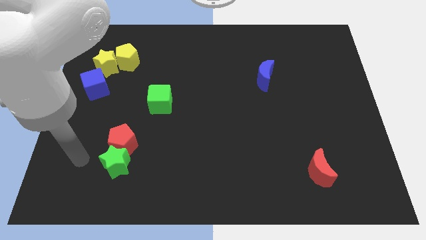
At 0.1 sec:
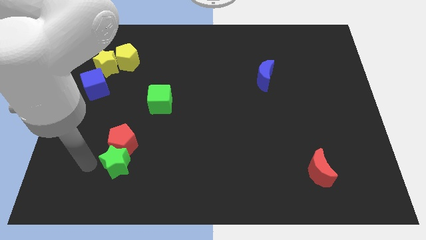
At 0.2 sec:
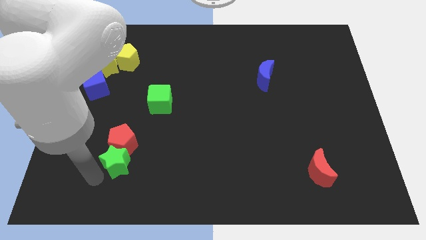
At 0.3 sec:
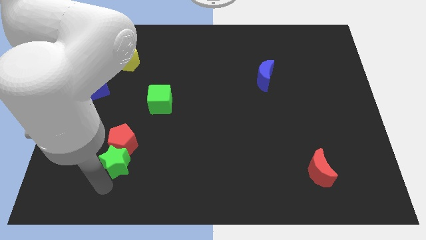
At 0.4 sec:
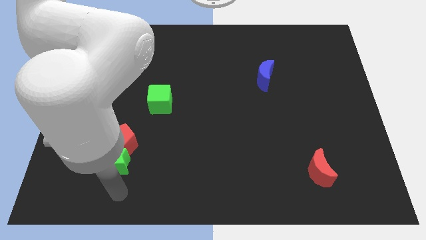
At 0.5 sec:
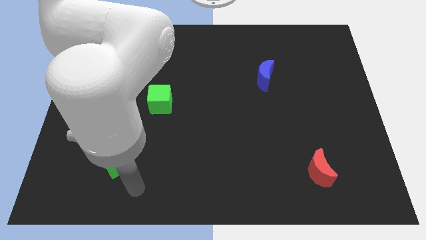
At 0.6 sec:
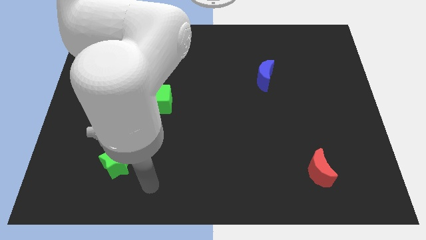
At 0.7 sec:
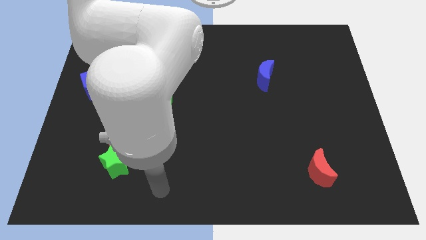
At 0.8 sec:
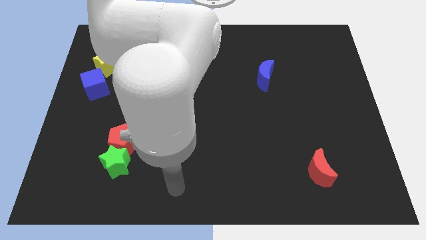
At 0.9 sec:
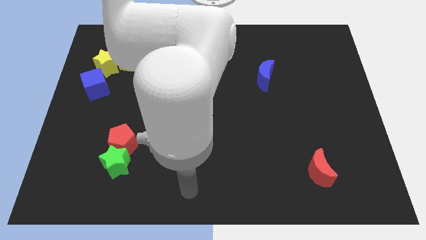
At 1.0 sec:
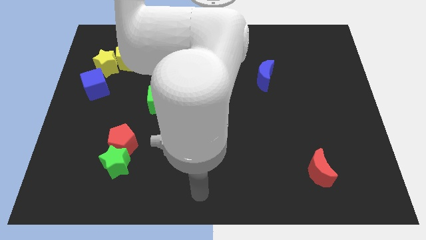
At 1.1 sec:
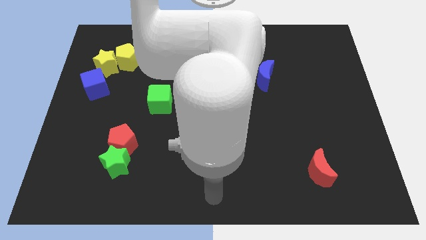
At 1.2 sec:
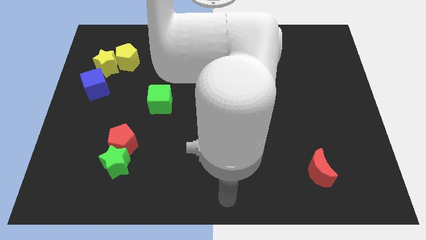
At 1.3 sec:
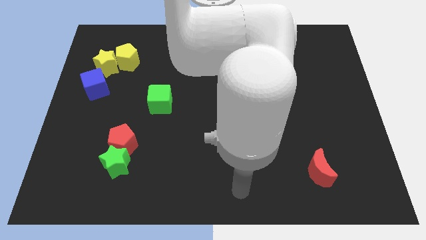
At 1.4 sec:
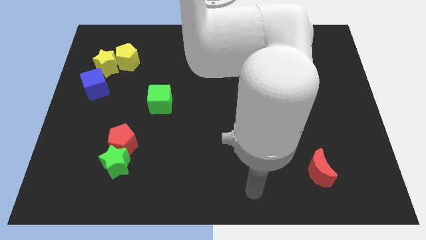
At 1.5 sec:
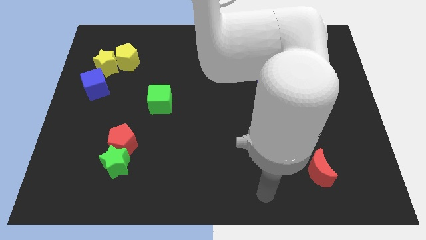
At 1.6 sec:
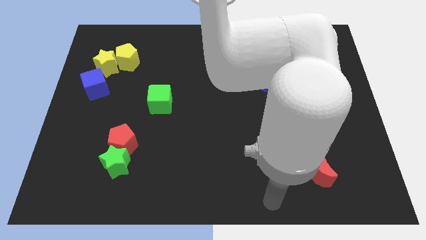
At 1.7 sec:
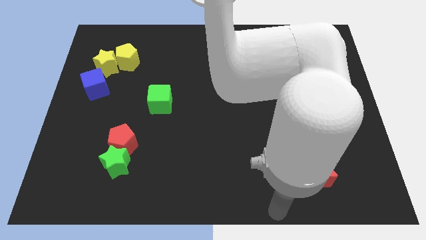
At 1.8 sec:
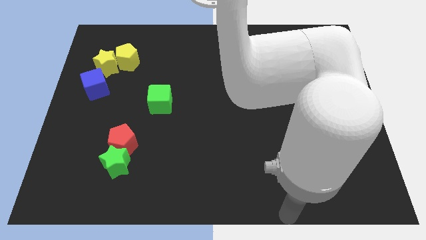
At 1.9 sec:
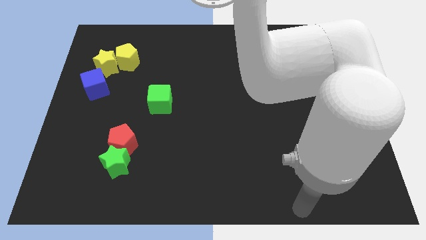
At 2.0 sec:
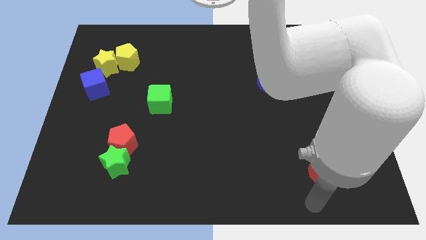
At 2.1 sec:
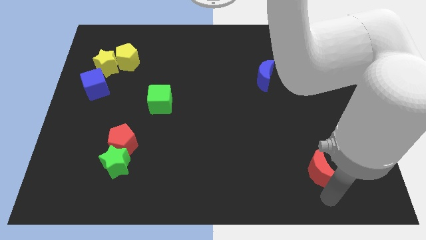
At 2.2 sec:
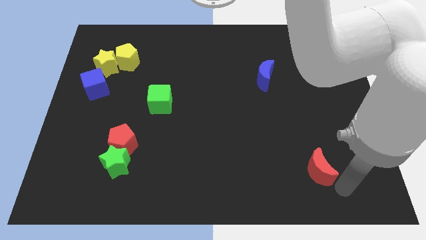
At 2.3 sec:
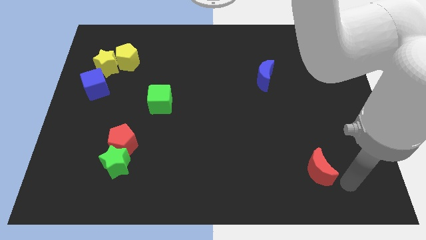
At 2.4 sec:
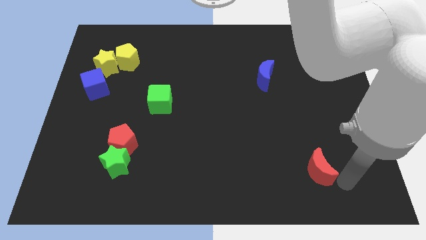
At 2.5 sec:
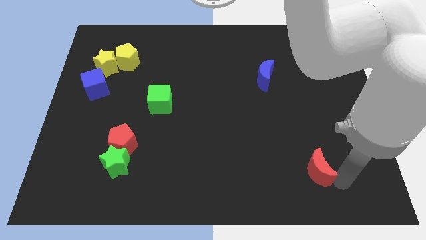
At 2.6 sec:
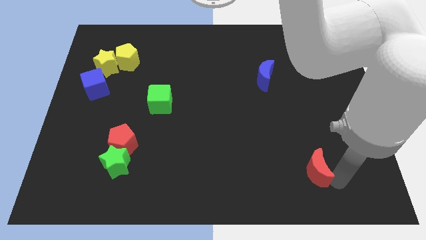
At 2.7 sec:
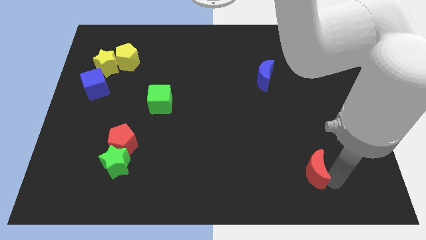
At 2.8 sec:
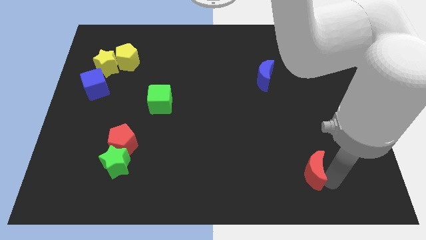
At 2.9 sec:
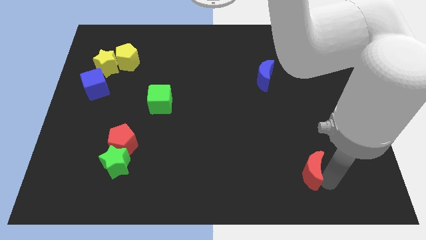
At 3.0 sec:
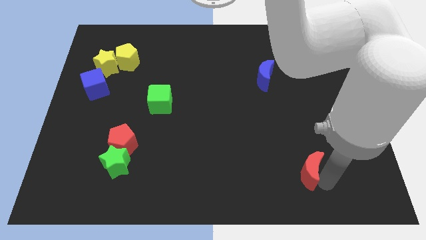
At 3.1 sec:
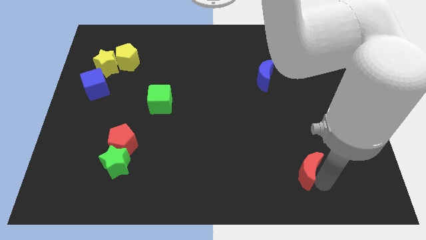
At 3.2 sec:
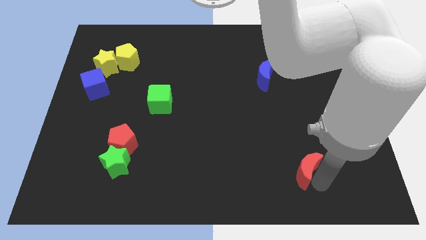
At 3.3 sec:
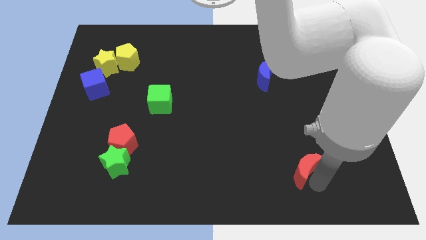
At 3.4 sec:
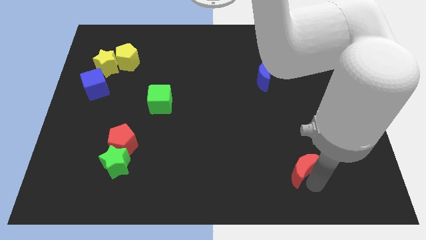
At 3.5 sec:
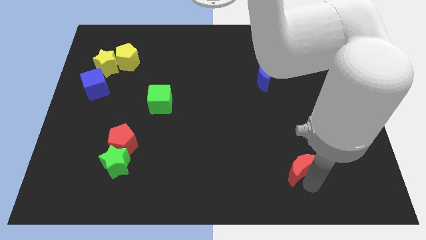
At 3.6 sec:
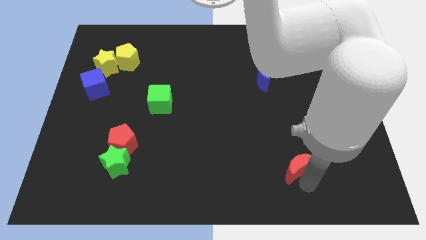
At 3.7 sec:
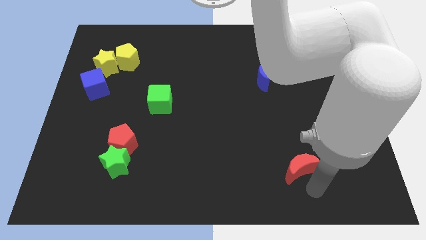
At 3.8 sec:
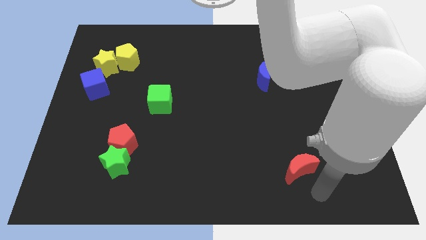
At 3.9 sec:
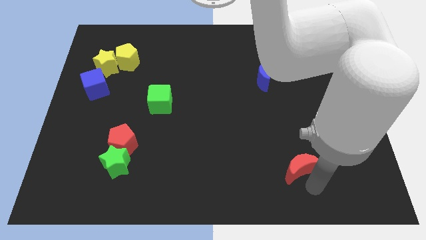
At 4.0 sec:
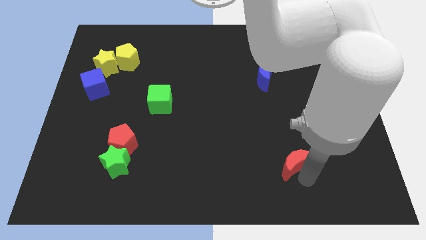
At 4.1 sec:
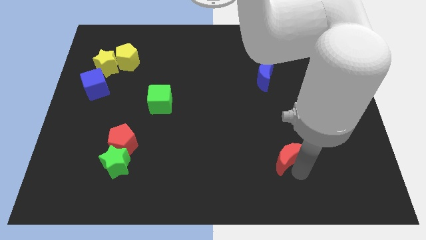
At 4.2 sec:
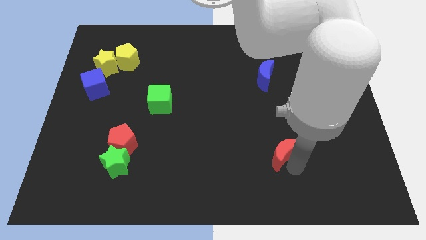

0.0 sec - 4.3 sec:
move the red moon upwards and to the left diagonally somewhat

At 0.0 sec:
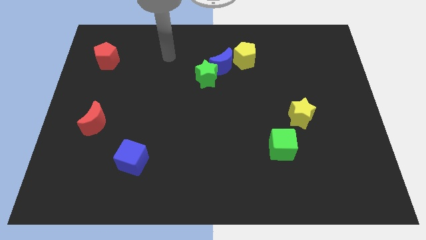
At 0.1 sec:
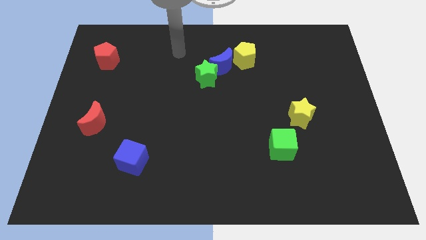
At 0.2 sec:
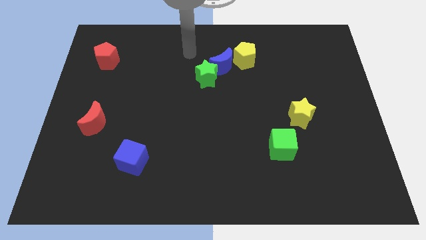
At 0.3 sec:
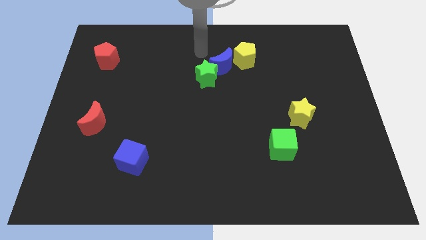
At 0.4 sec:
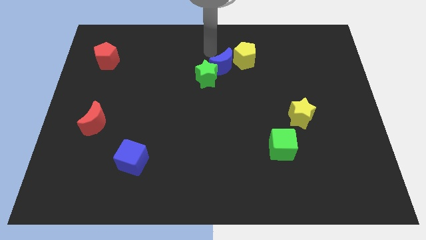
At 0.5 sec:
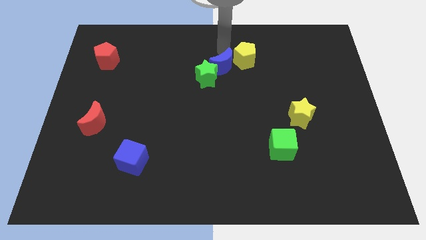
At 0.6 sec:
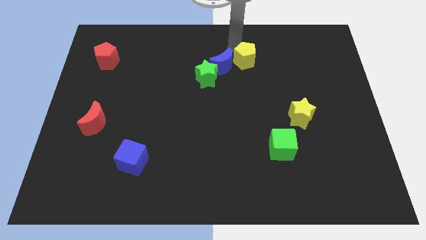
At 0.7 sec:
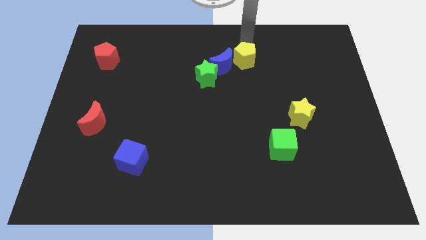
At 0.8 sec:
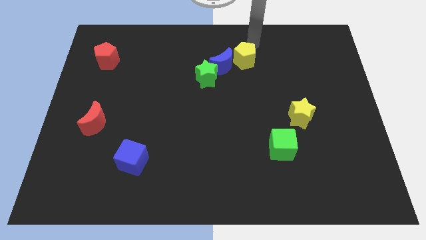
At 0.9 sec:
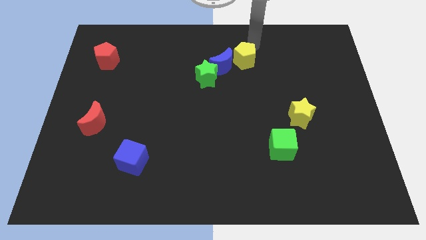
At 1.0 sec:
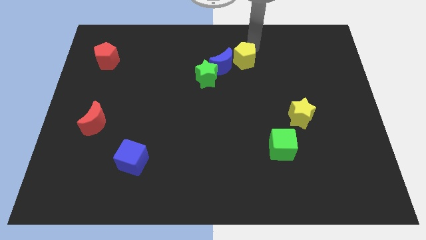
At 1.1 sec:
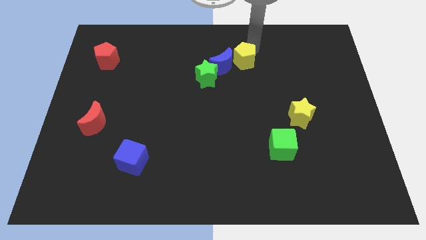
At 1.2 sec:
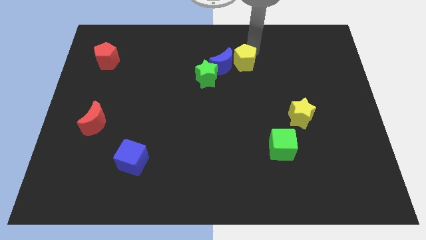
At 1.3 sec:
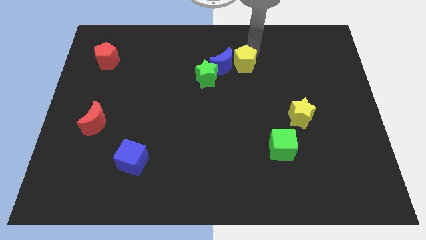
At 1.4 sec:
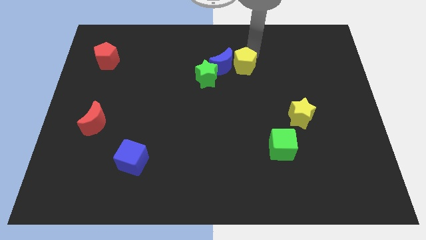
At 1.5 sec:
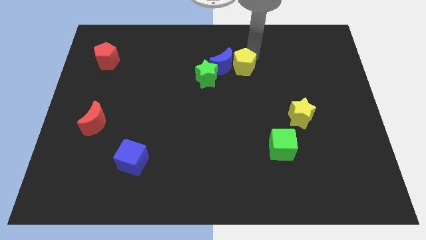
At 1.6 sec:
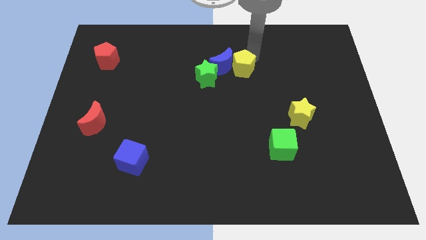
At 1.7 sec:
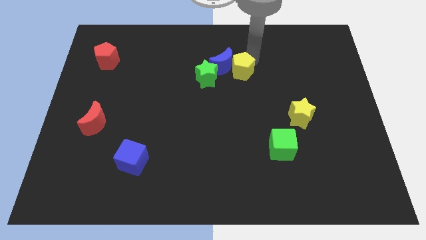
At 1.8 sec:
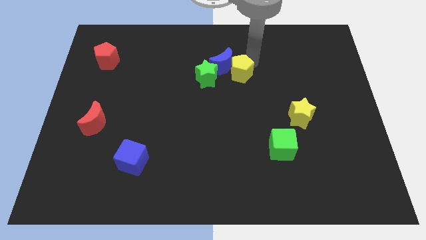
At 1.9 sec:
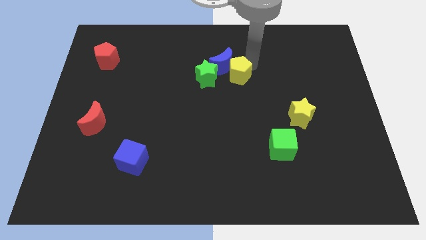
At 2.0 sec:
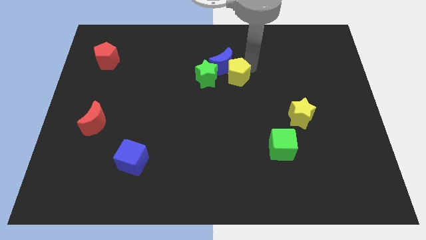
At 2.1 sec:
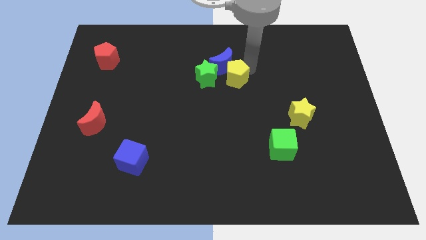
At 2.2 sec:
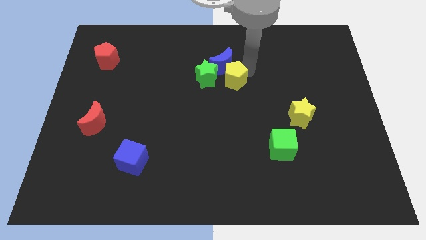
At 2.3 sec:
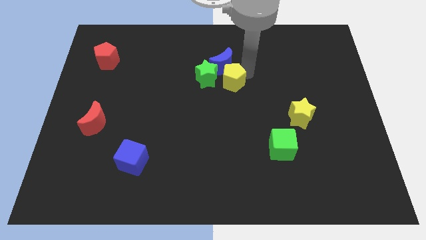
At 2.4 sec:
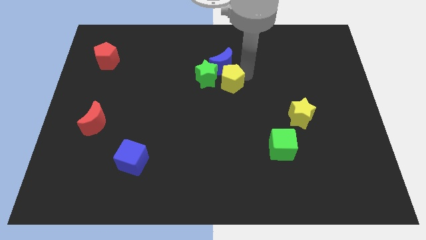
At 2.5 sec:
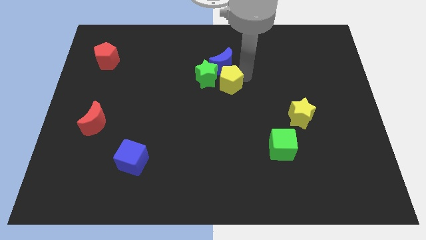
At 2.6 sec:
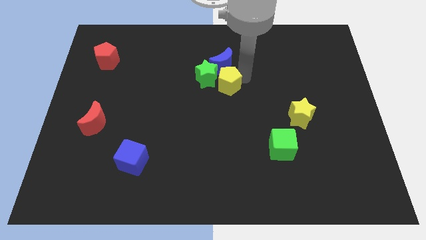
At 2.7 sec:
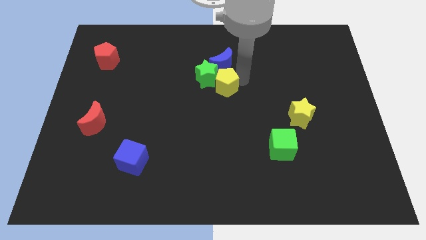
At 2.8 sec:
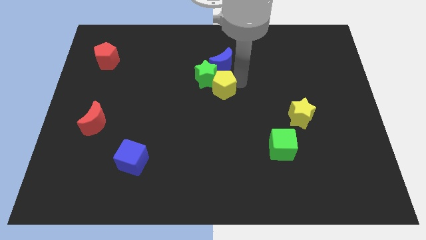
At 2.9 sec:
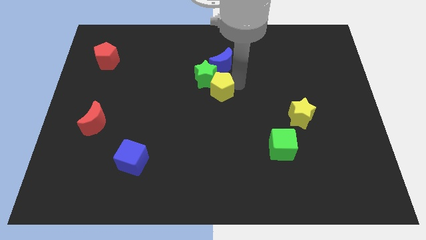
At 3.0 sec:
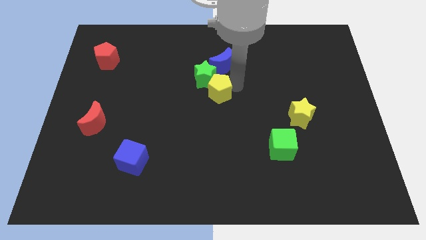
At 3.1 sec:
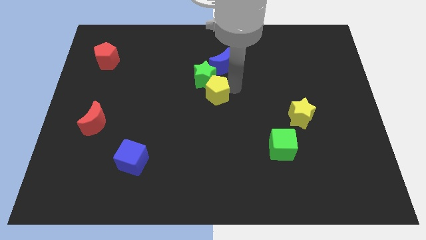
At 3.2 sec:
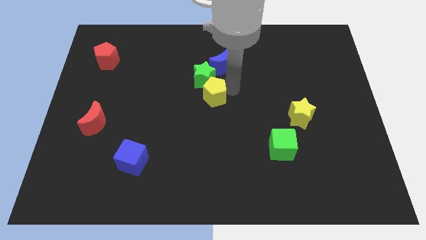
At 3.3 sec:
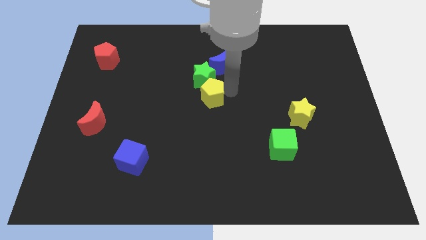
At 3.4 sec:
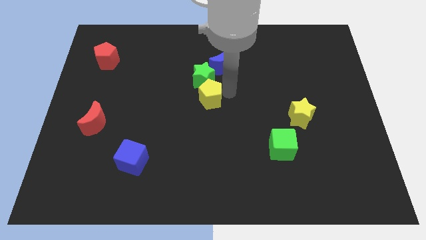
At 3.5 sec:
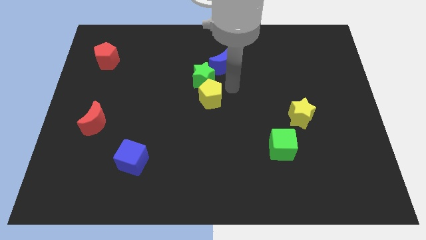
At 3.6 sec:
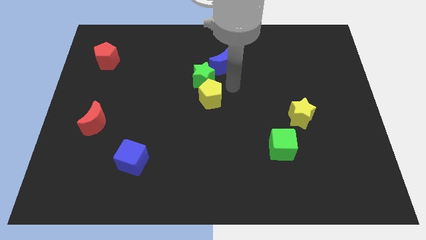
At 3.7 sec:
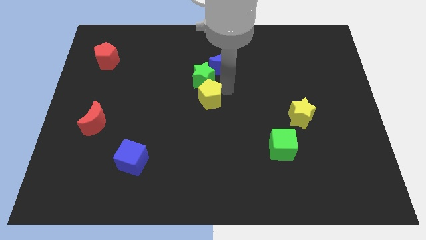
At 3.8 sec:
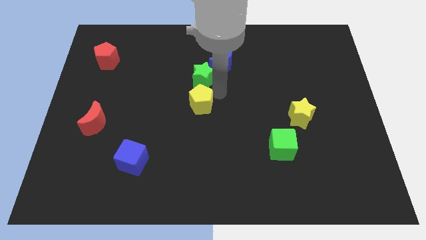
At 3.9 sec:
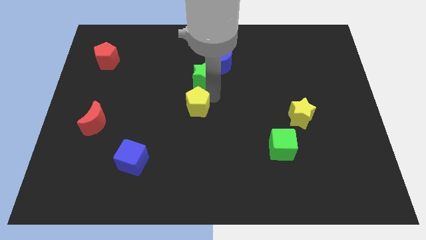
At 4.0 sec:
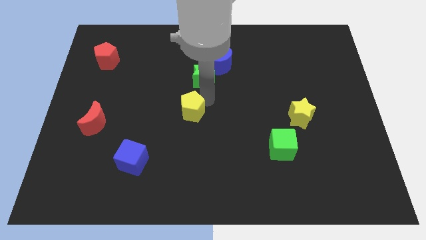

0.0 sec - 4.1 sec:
push the yellow pentagon down and to the left diagonally
